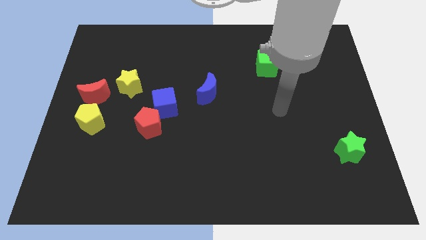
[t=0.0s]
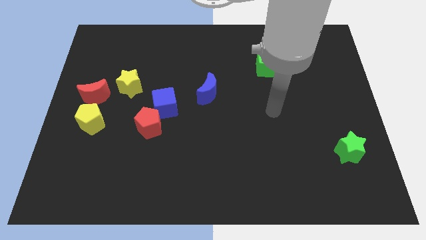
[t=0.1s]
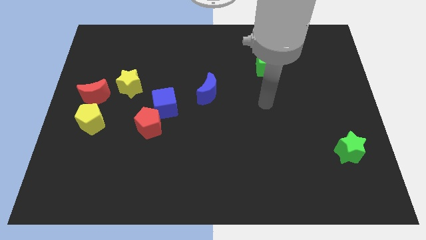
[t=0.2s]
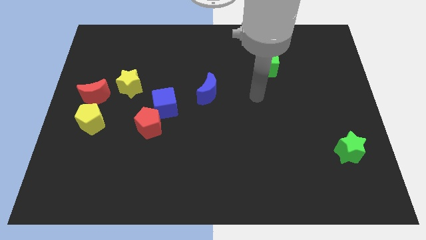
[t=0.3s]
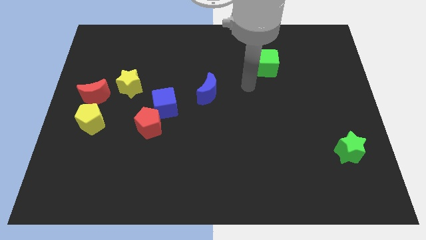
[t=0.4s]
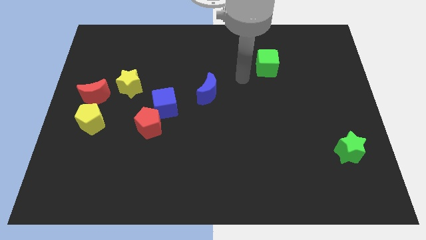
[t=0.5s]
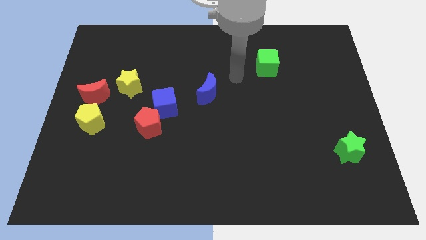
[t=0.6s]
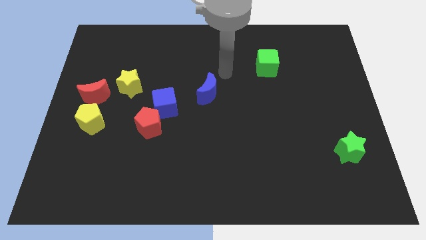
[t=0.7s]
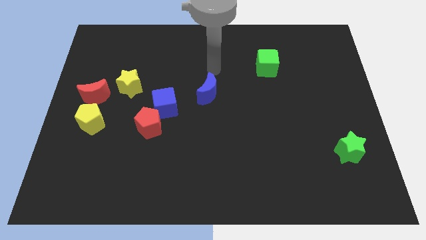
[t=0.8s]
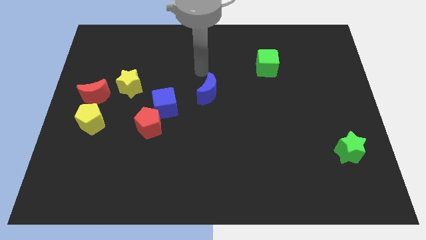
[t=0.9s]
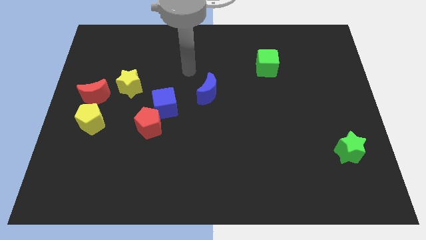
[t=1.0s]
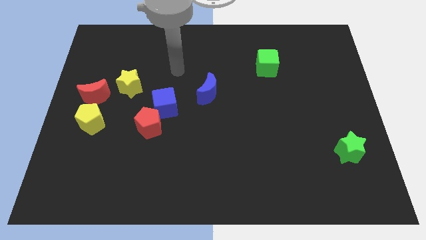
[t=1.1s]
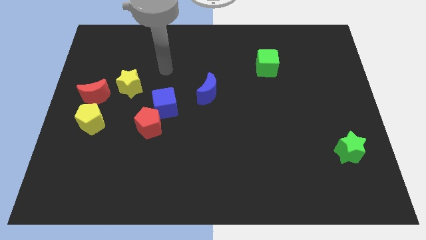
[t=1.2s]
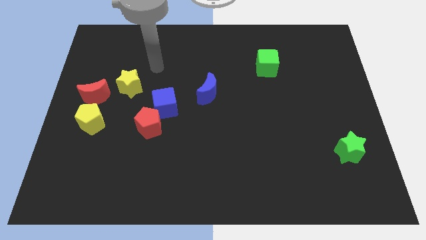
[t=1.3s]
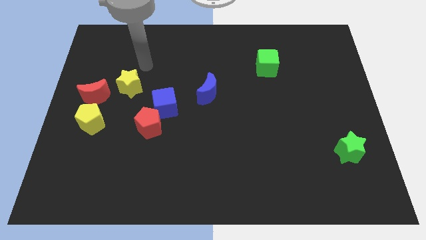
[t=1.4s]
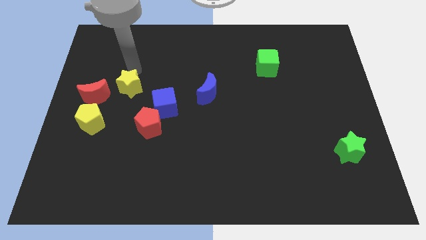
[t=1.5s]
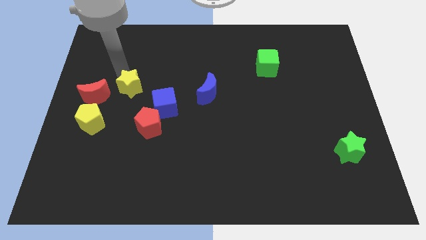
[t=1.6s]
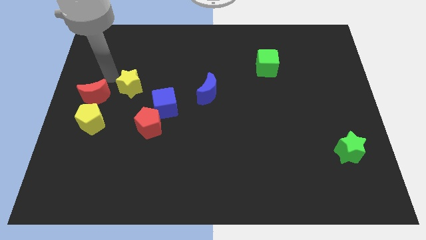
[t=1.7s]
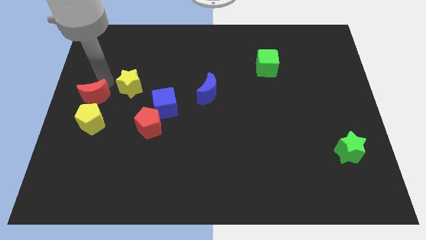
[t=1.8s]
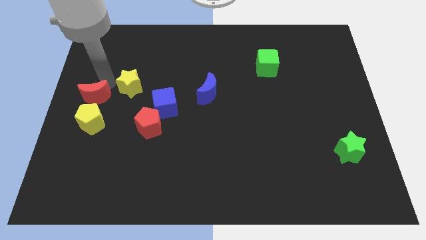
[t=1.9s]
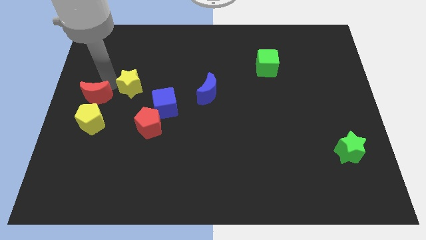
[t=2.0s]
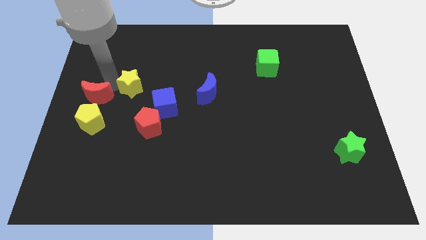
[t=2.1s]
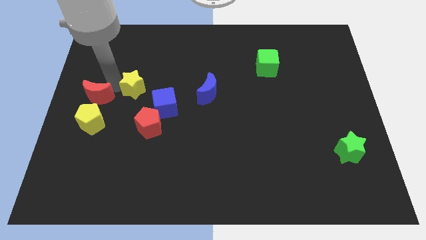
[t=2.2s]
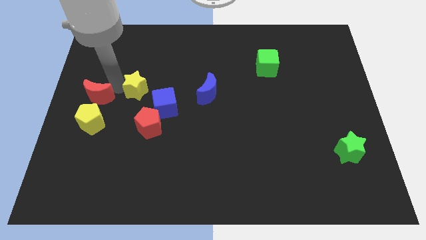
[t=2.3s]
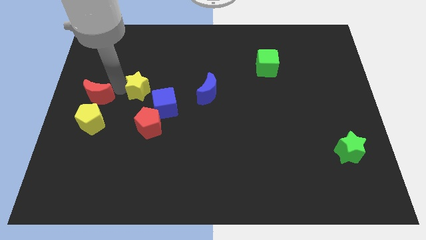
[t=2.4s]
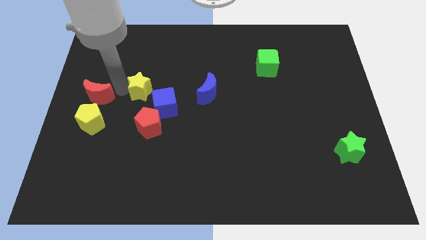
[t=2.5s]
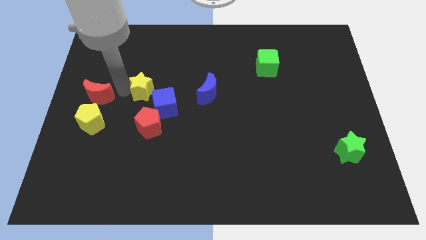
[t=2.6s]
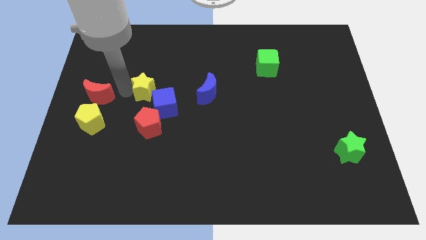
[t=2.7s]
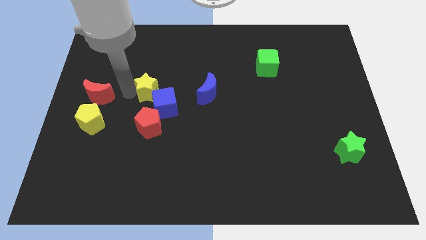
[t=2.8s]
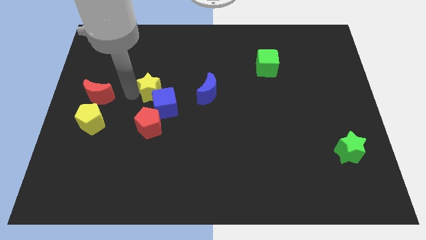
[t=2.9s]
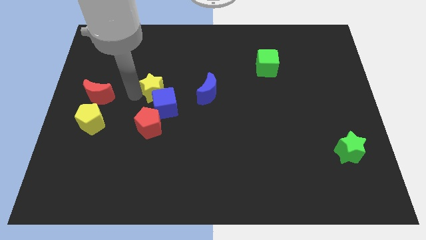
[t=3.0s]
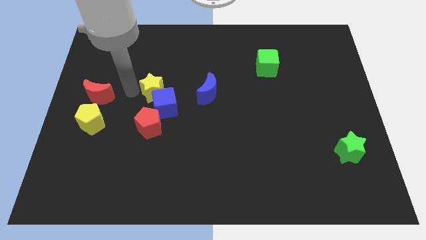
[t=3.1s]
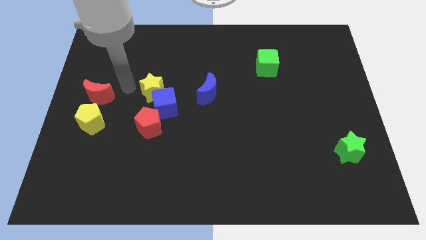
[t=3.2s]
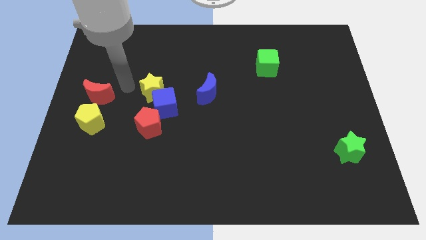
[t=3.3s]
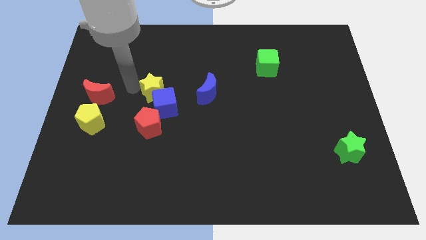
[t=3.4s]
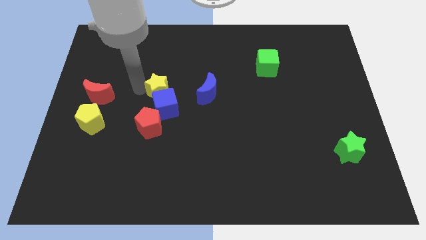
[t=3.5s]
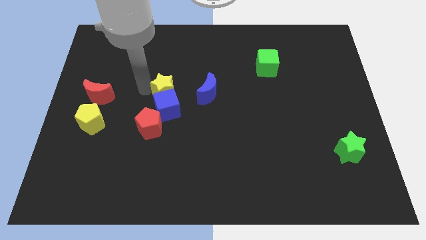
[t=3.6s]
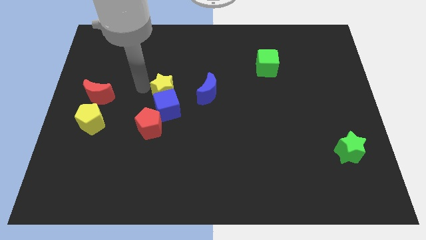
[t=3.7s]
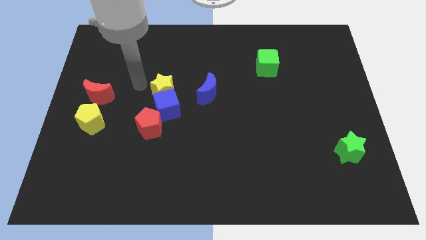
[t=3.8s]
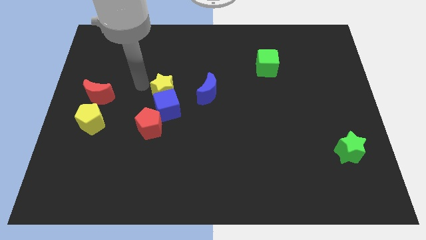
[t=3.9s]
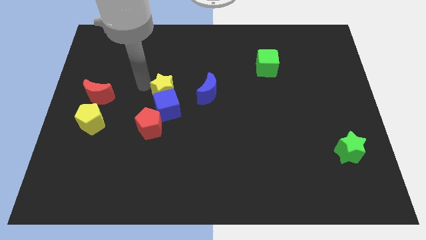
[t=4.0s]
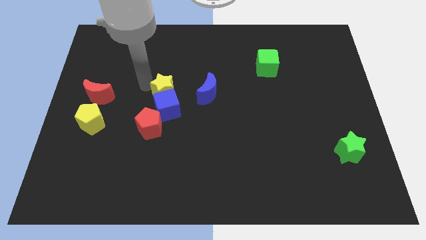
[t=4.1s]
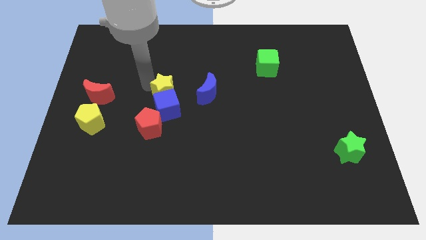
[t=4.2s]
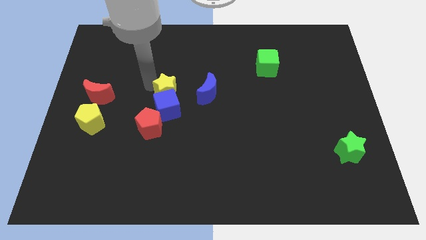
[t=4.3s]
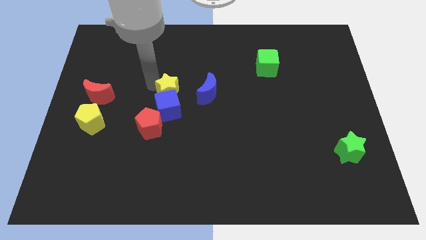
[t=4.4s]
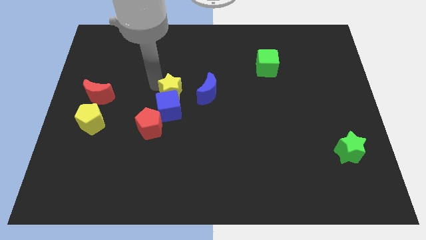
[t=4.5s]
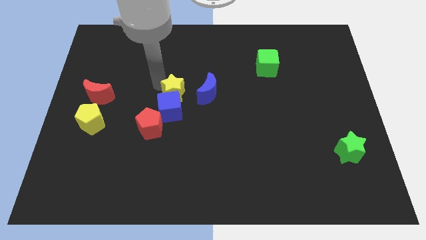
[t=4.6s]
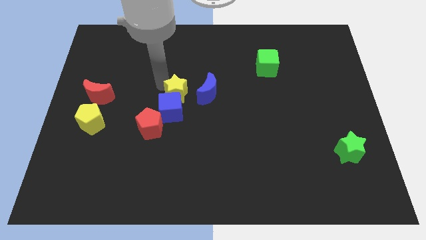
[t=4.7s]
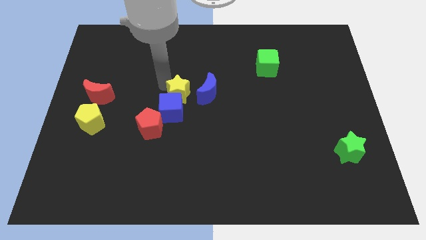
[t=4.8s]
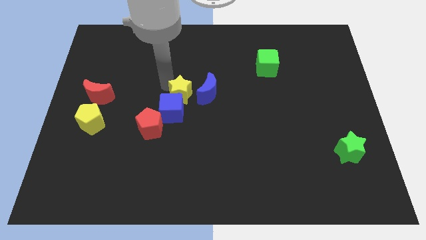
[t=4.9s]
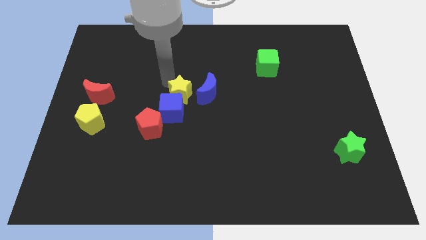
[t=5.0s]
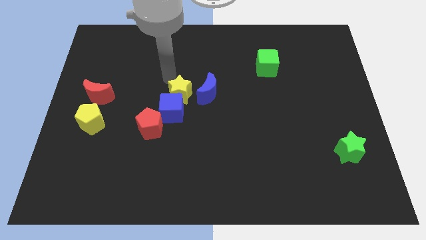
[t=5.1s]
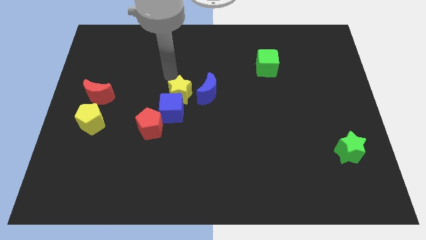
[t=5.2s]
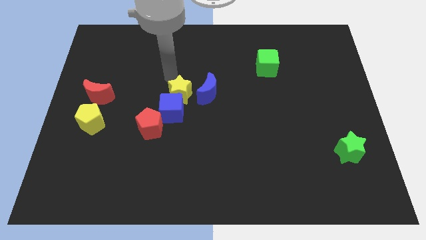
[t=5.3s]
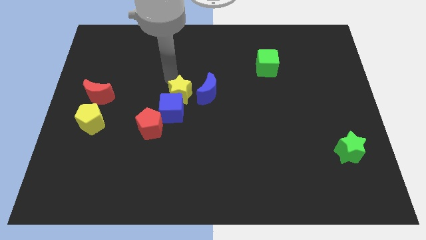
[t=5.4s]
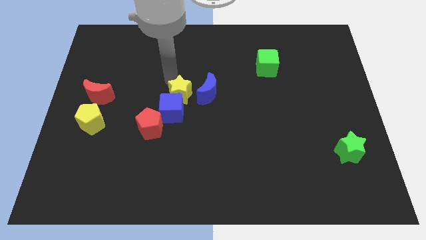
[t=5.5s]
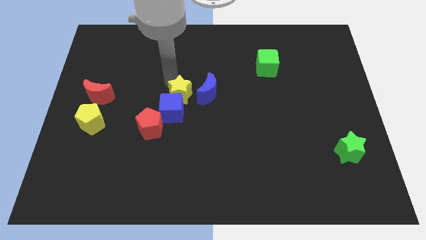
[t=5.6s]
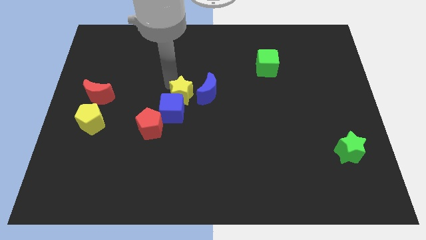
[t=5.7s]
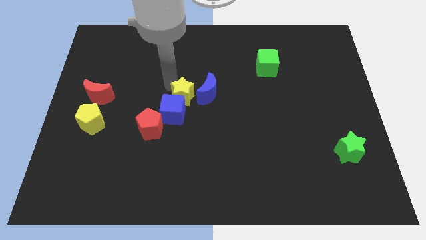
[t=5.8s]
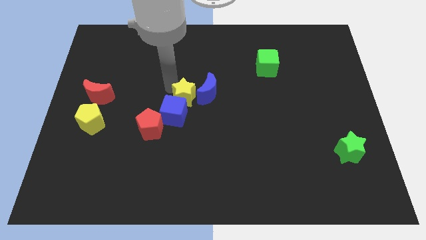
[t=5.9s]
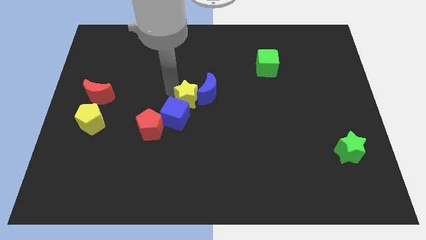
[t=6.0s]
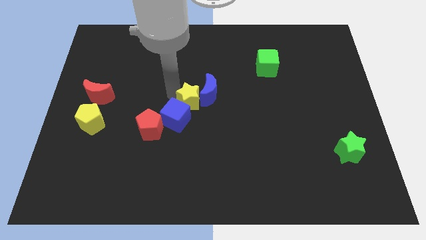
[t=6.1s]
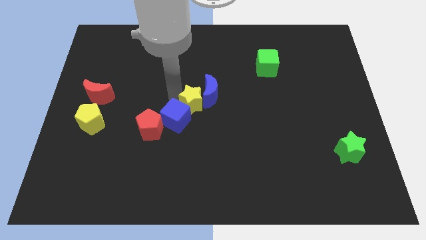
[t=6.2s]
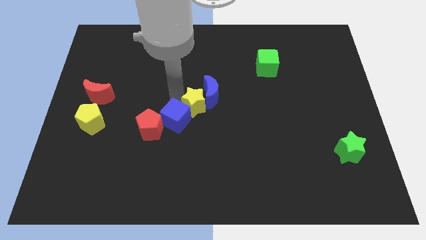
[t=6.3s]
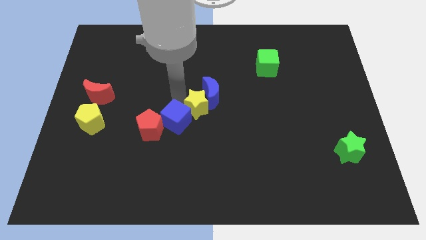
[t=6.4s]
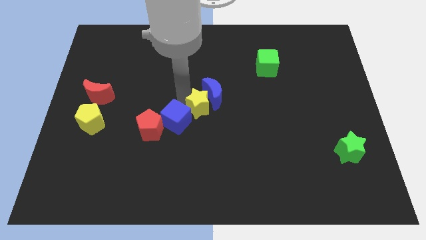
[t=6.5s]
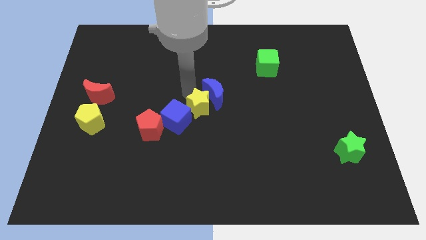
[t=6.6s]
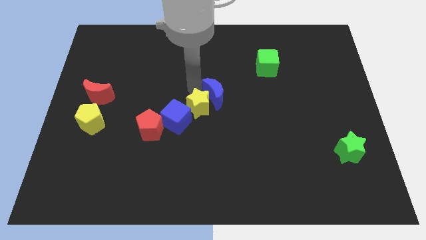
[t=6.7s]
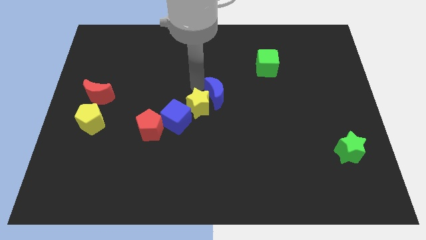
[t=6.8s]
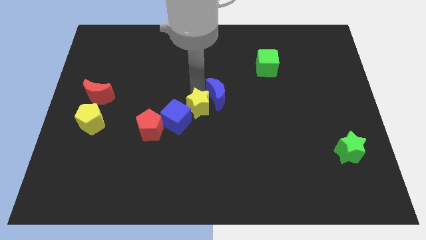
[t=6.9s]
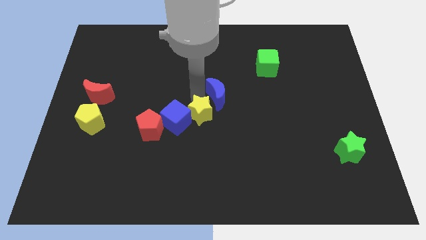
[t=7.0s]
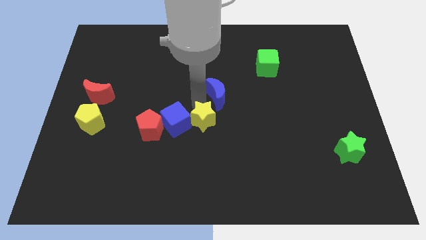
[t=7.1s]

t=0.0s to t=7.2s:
move the yellow star to the bottom right of the blue cube
